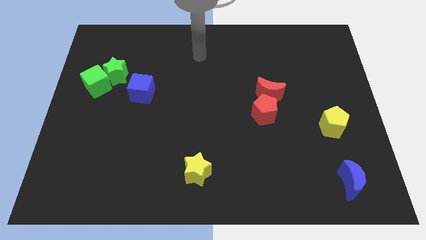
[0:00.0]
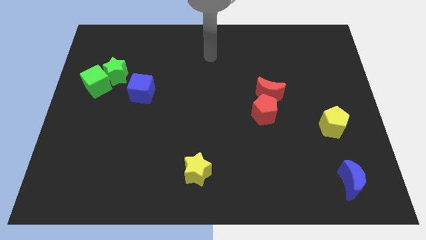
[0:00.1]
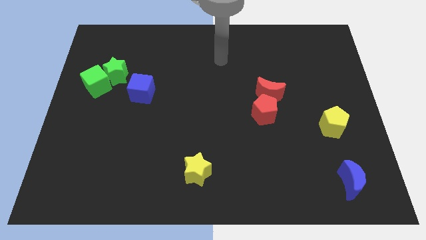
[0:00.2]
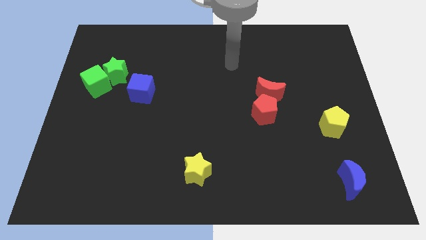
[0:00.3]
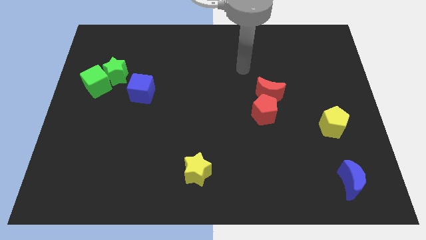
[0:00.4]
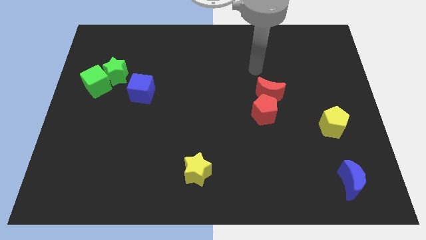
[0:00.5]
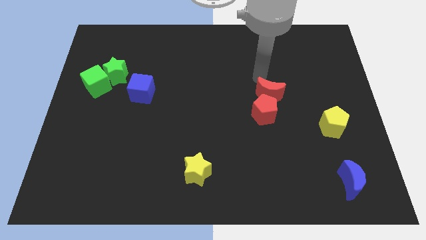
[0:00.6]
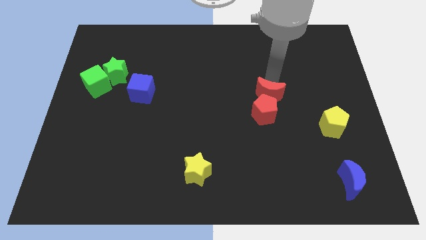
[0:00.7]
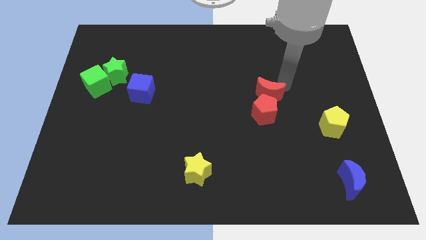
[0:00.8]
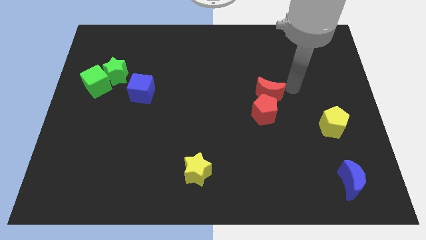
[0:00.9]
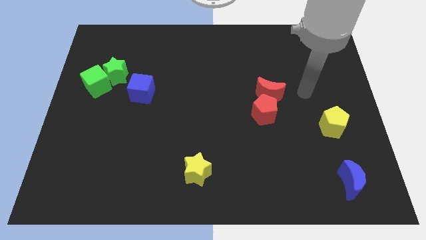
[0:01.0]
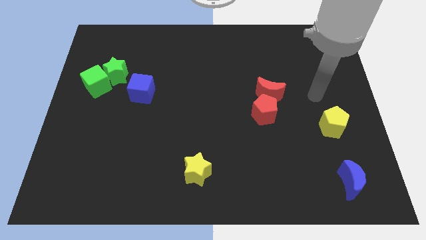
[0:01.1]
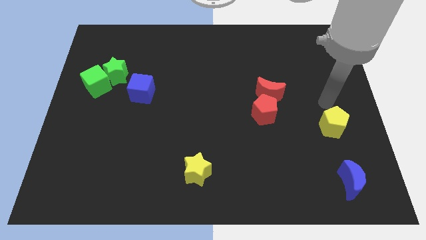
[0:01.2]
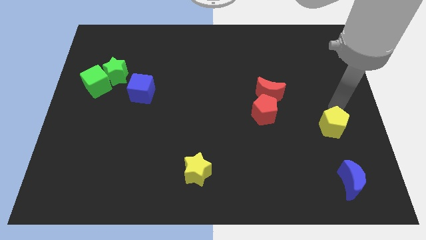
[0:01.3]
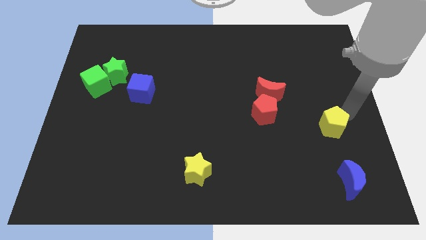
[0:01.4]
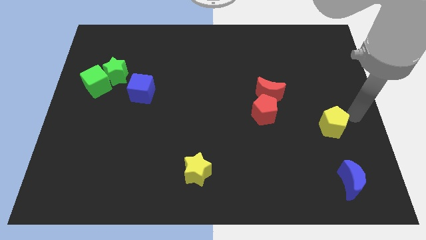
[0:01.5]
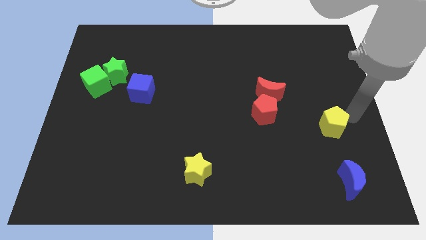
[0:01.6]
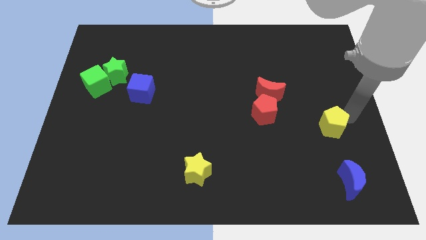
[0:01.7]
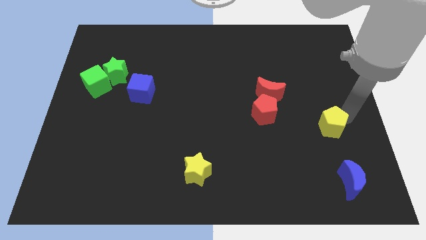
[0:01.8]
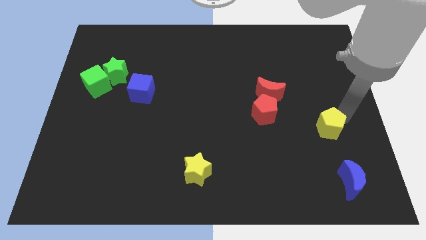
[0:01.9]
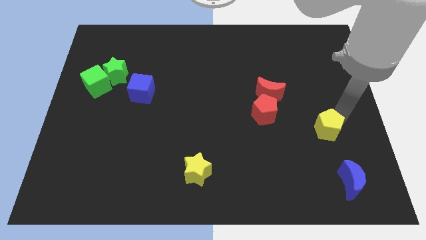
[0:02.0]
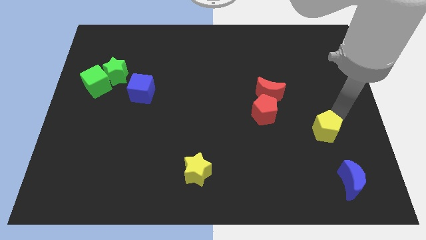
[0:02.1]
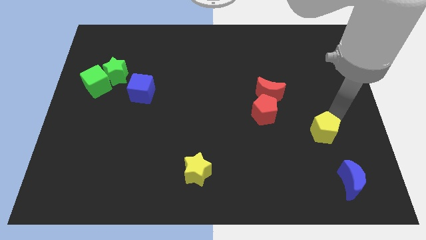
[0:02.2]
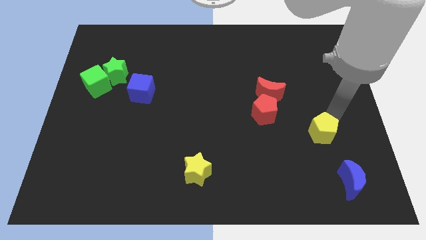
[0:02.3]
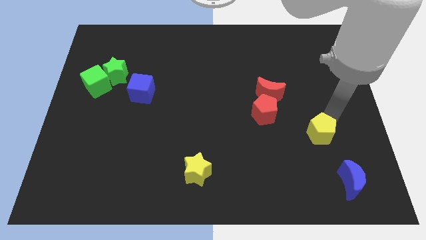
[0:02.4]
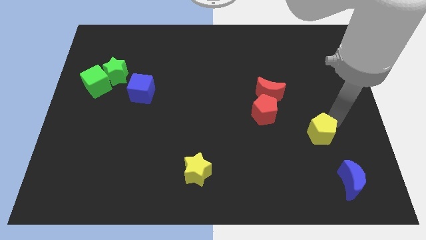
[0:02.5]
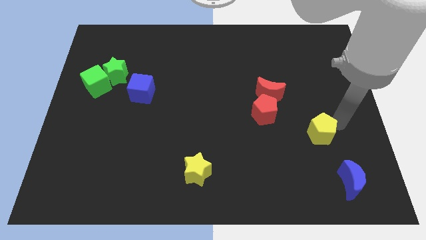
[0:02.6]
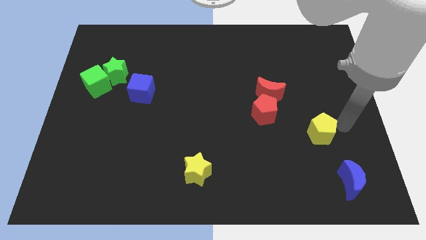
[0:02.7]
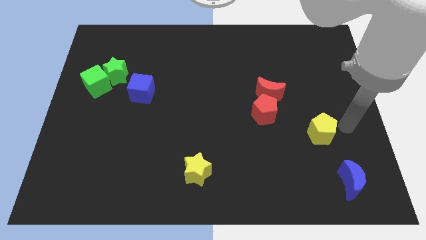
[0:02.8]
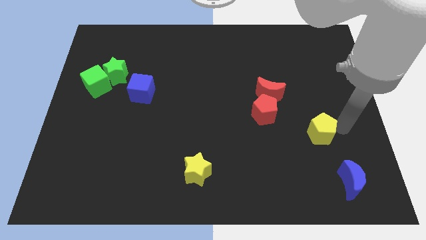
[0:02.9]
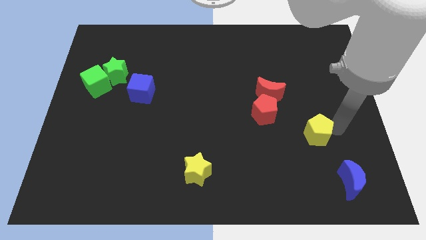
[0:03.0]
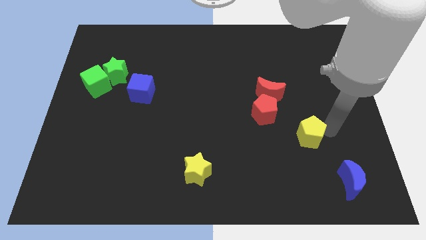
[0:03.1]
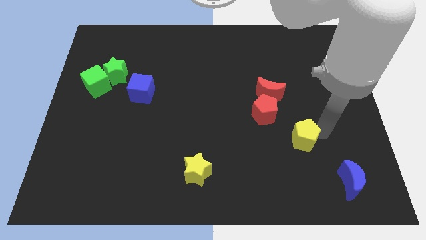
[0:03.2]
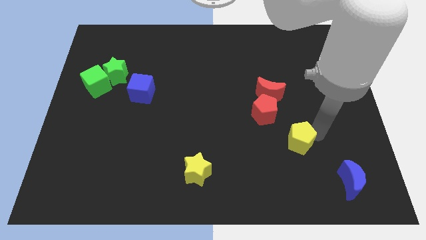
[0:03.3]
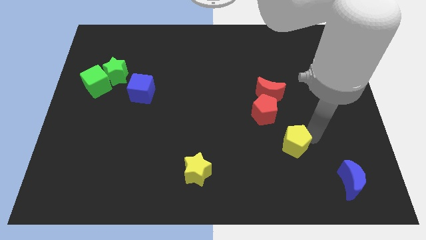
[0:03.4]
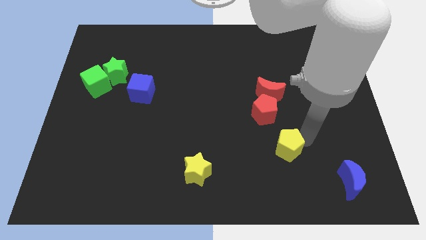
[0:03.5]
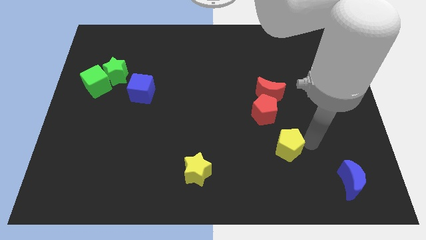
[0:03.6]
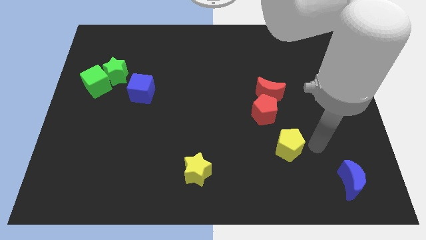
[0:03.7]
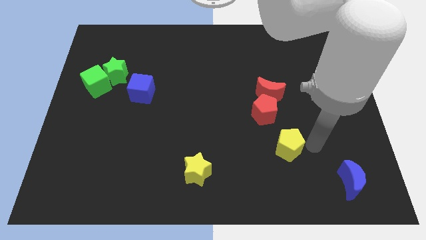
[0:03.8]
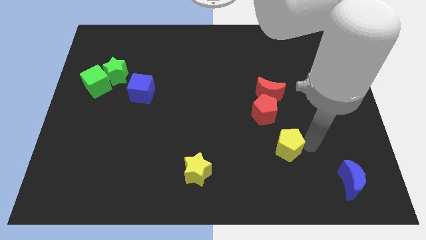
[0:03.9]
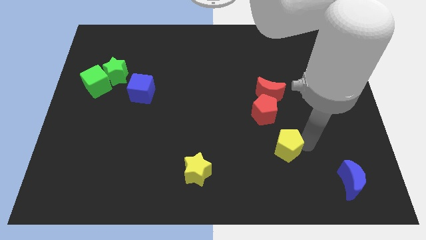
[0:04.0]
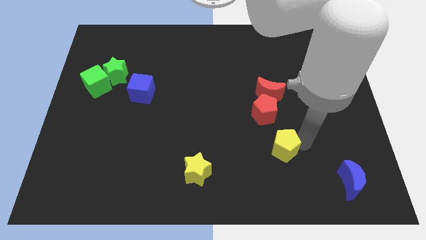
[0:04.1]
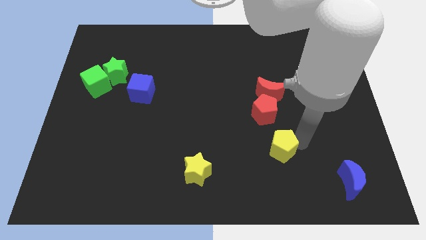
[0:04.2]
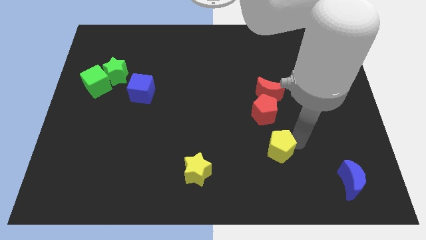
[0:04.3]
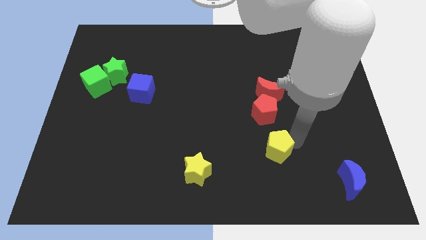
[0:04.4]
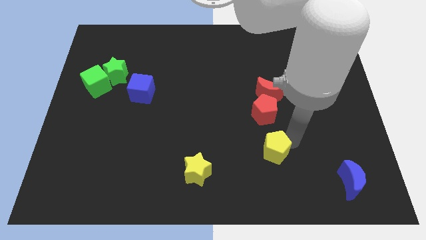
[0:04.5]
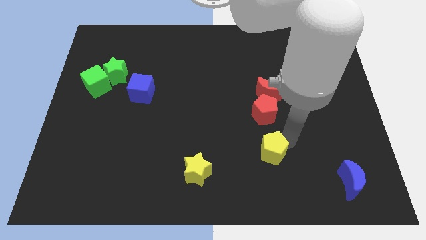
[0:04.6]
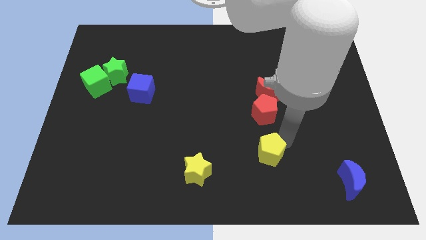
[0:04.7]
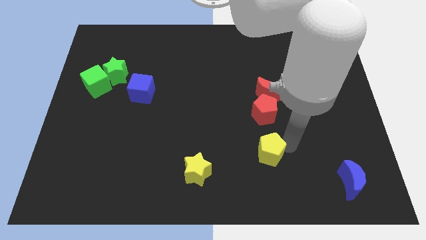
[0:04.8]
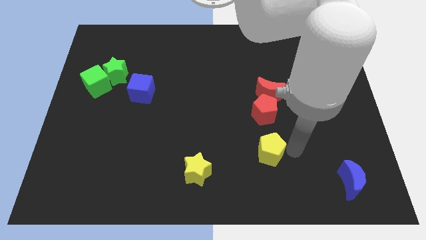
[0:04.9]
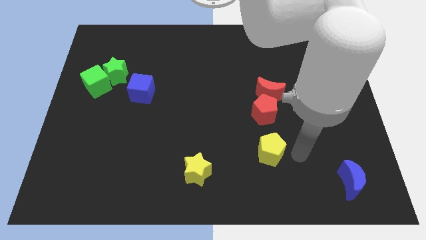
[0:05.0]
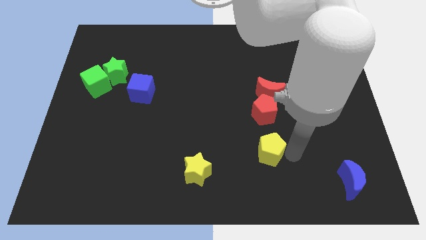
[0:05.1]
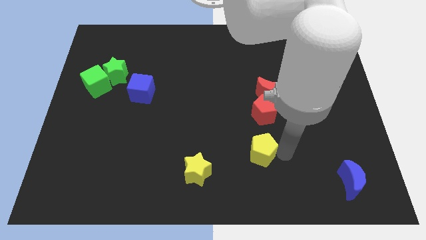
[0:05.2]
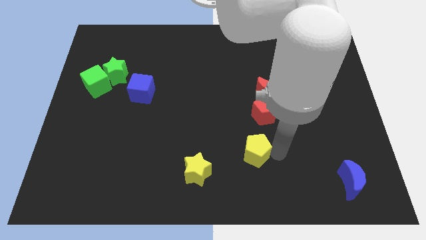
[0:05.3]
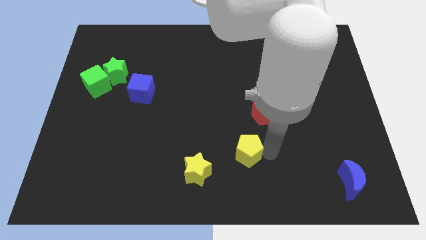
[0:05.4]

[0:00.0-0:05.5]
move the yellow pentagon diagonally up and to the right of the yellow star

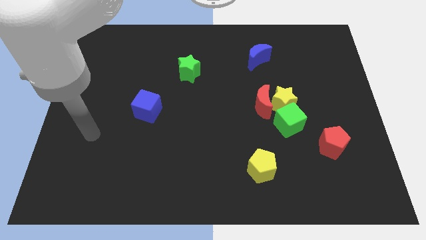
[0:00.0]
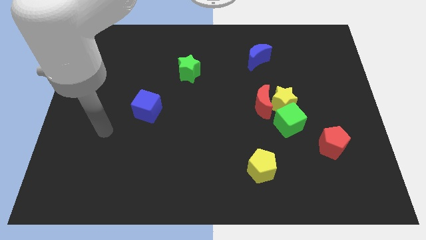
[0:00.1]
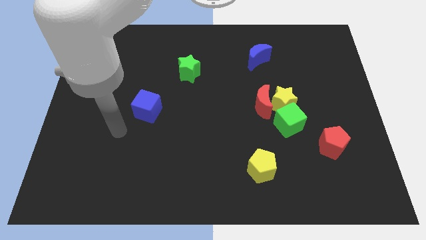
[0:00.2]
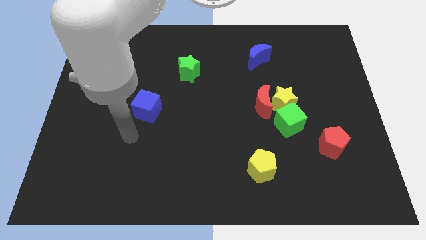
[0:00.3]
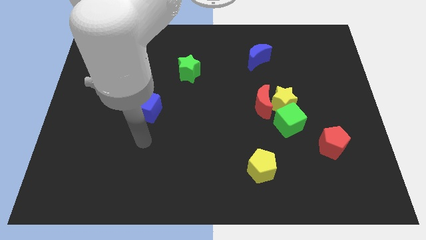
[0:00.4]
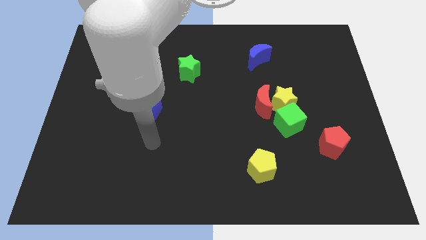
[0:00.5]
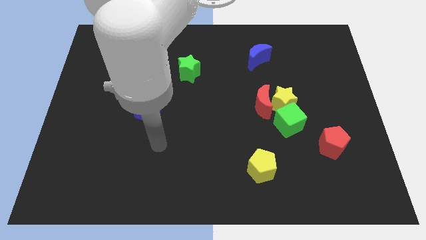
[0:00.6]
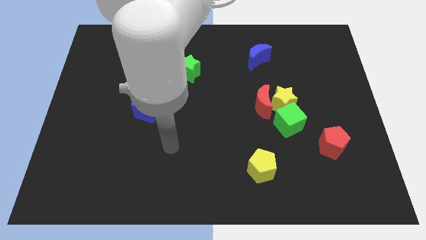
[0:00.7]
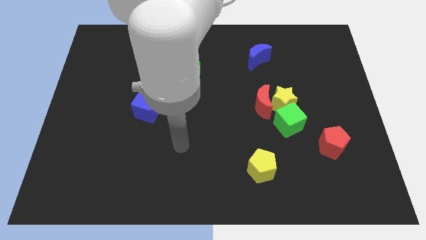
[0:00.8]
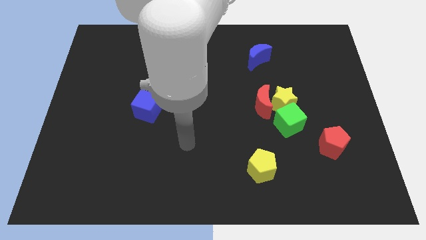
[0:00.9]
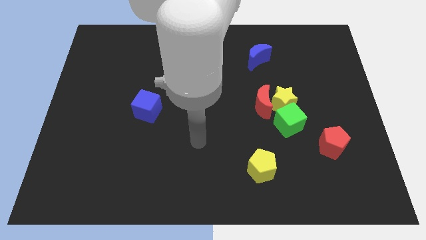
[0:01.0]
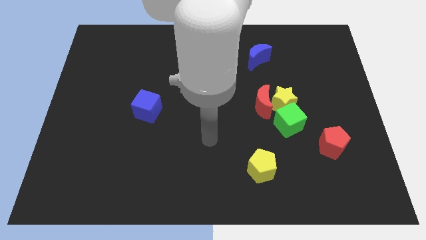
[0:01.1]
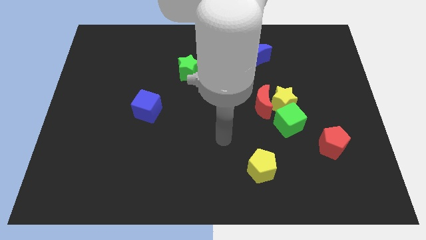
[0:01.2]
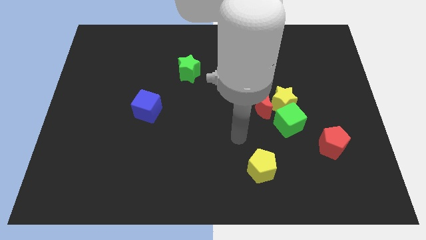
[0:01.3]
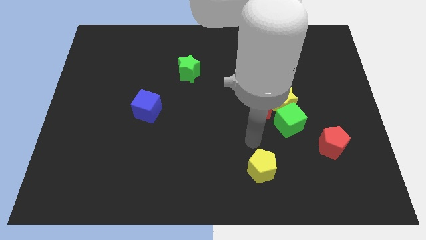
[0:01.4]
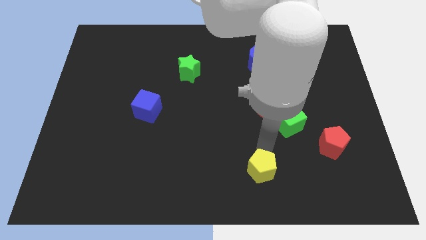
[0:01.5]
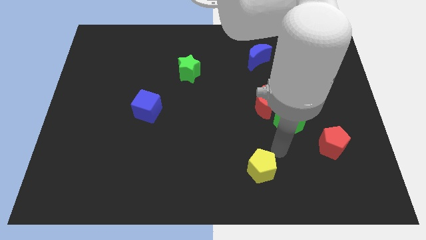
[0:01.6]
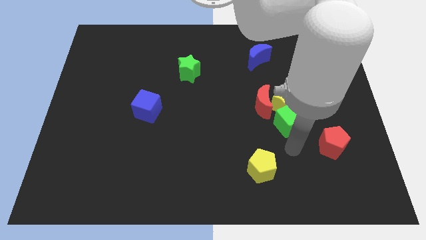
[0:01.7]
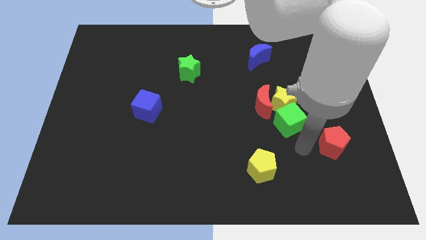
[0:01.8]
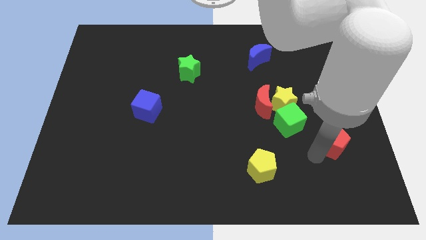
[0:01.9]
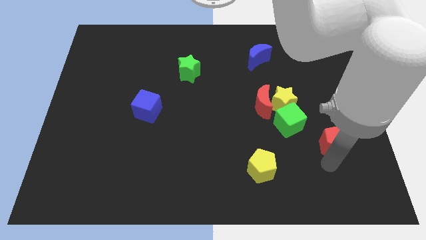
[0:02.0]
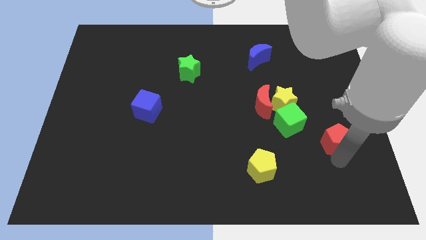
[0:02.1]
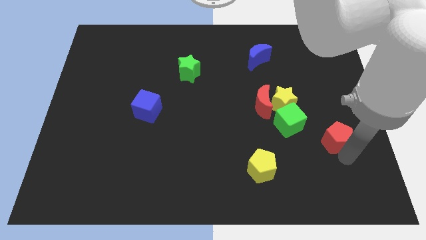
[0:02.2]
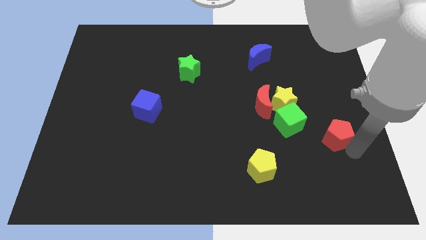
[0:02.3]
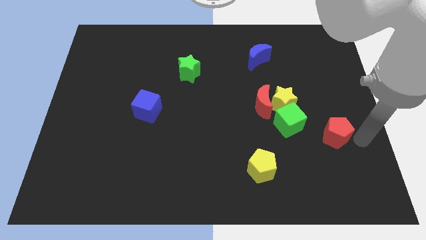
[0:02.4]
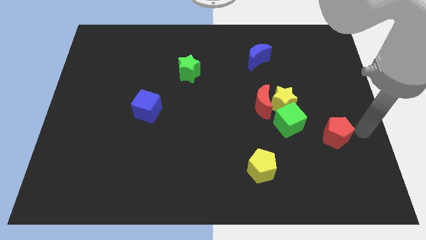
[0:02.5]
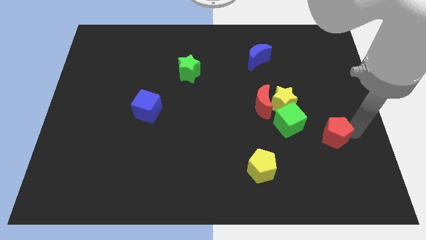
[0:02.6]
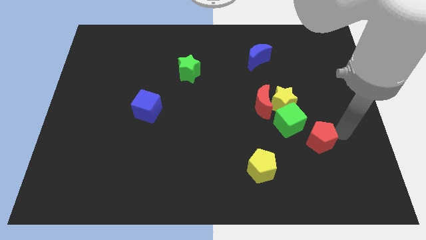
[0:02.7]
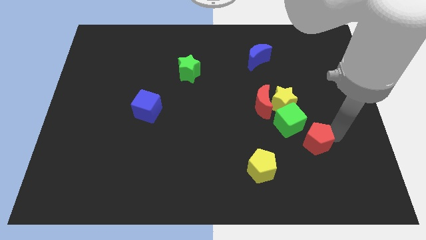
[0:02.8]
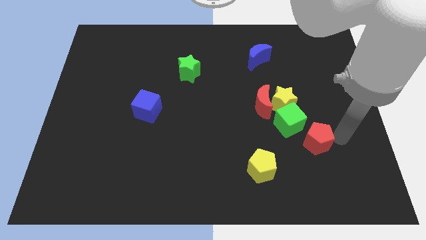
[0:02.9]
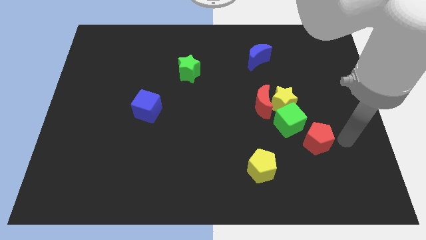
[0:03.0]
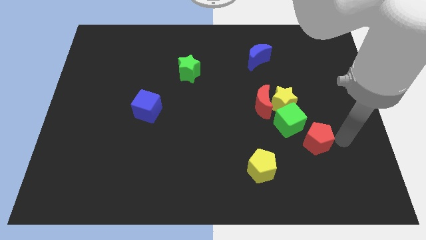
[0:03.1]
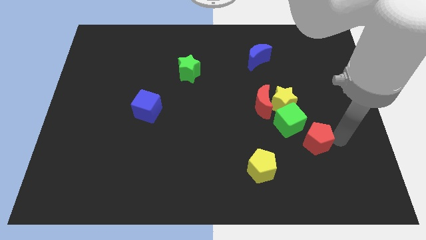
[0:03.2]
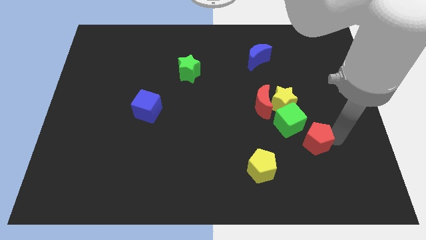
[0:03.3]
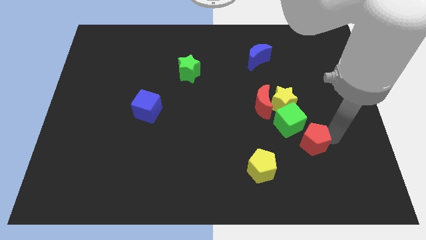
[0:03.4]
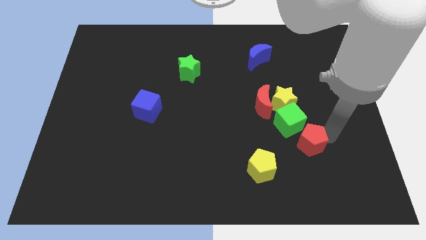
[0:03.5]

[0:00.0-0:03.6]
push the red pentagon below the yellow star
